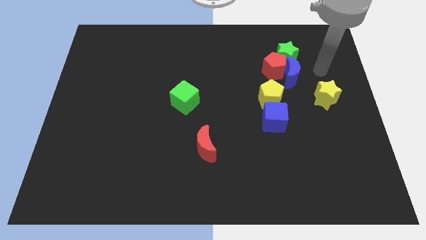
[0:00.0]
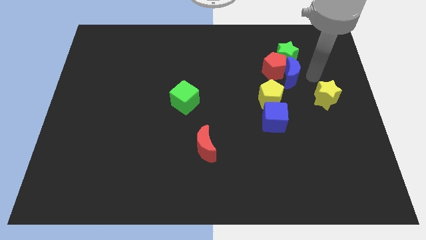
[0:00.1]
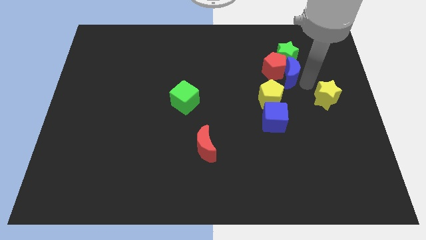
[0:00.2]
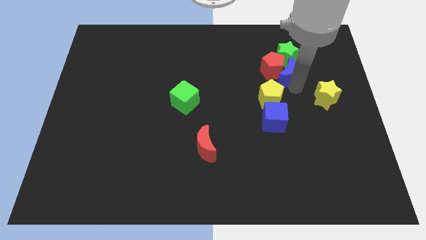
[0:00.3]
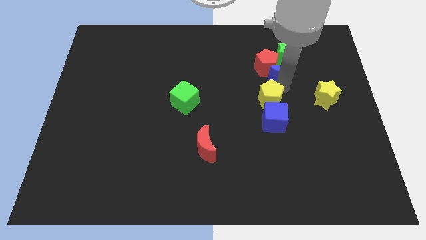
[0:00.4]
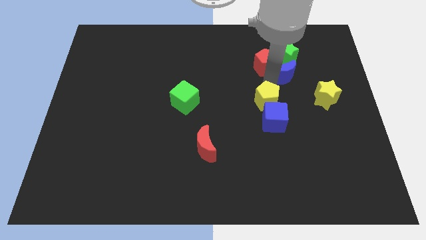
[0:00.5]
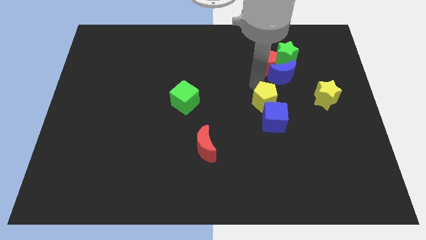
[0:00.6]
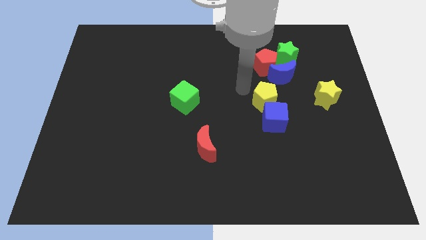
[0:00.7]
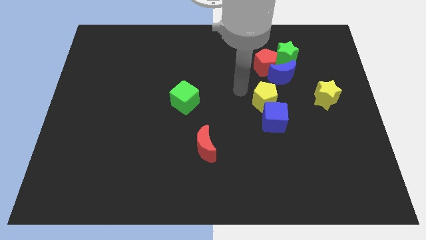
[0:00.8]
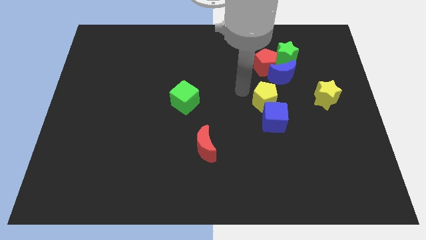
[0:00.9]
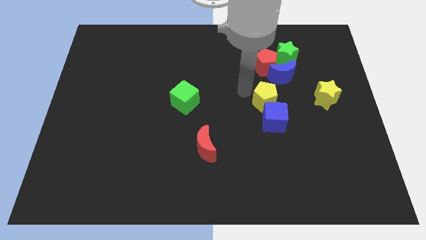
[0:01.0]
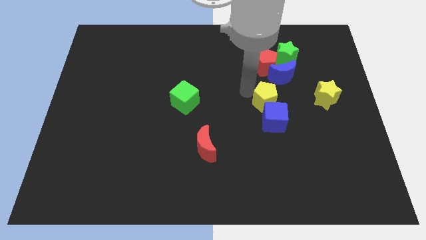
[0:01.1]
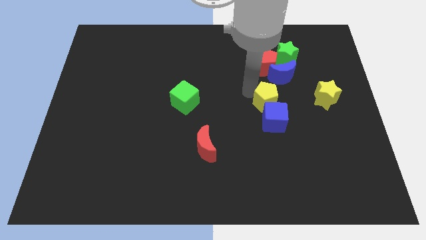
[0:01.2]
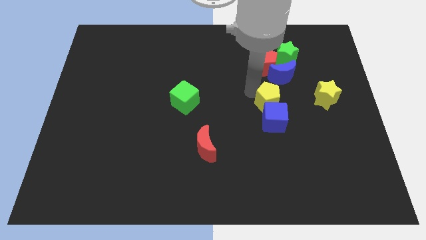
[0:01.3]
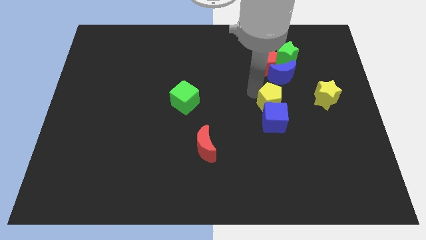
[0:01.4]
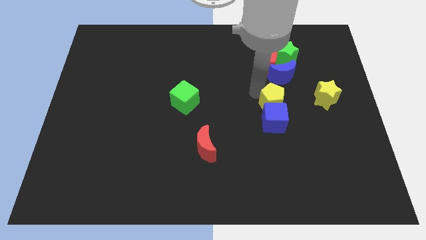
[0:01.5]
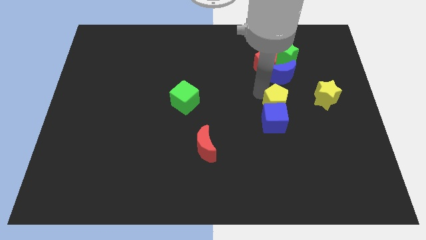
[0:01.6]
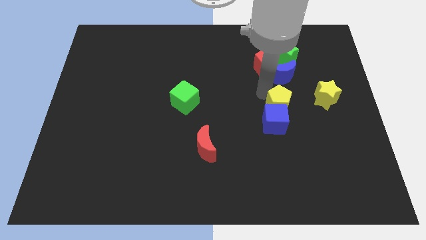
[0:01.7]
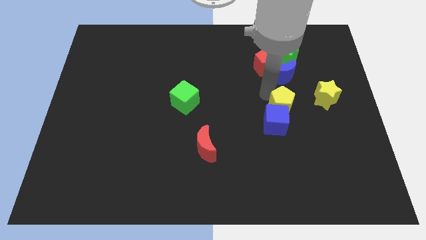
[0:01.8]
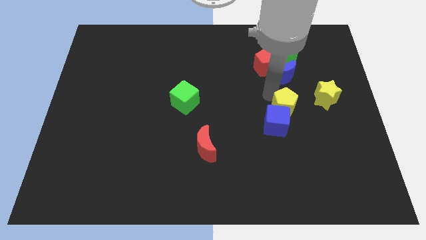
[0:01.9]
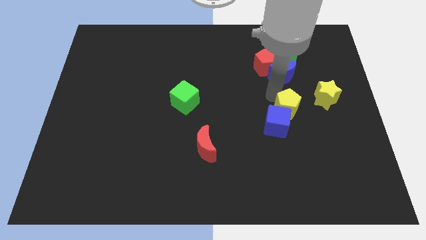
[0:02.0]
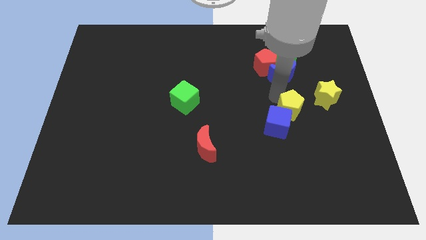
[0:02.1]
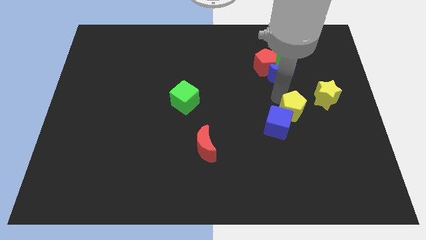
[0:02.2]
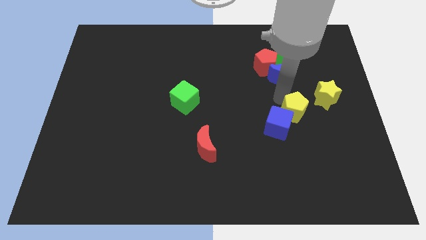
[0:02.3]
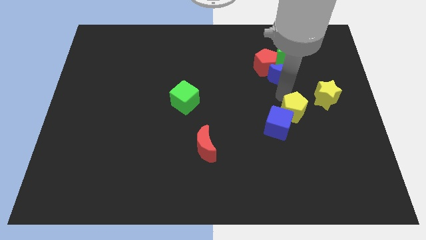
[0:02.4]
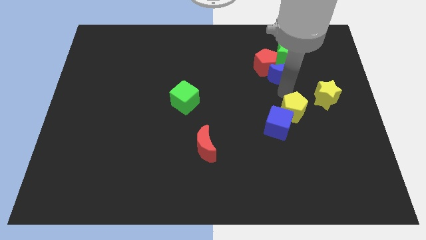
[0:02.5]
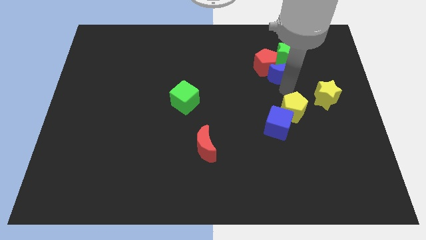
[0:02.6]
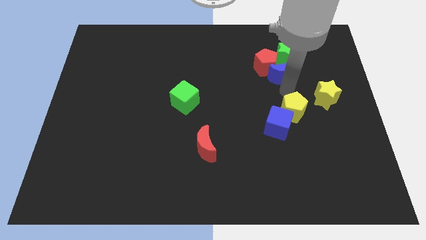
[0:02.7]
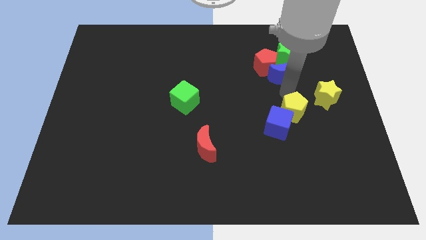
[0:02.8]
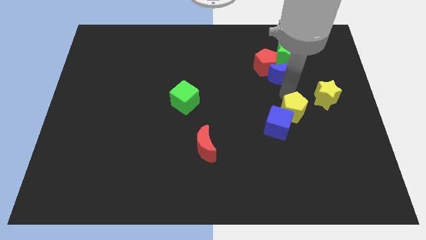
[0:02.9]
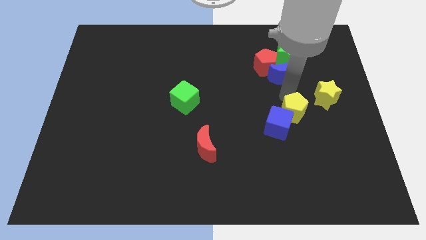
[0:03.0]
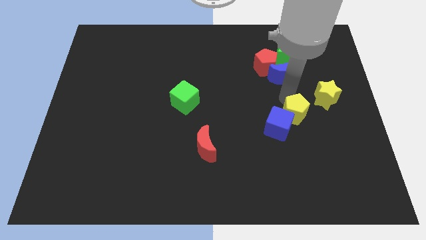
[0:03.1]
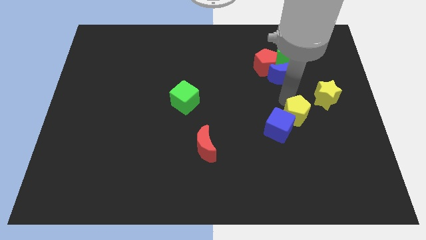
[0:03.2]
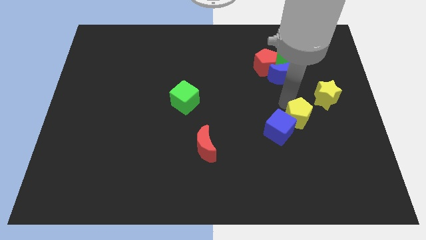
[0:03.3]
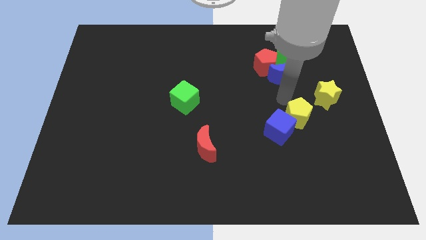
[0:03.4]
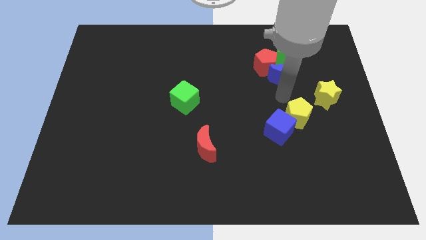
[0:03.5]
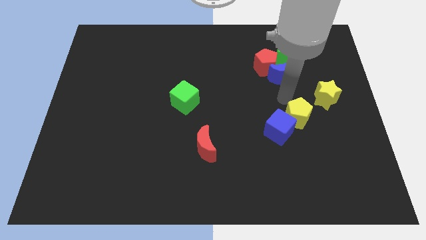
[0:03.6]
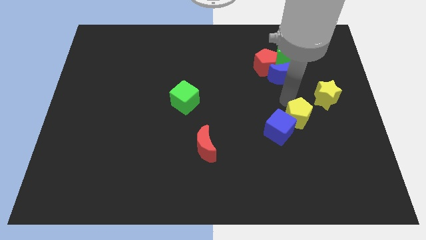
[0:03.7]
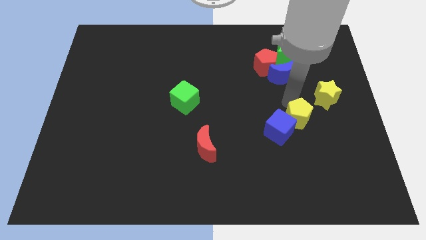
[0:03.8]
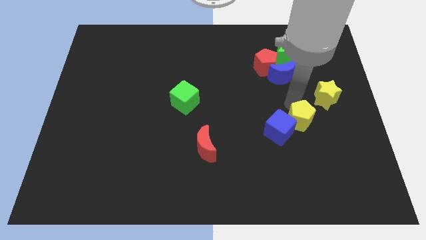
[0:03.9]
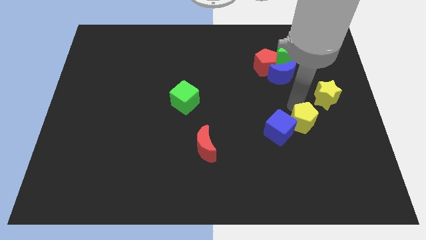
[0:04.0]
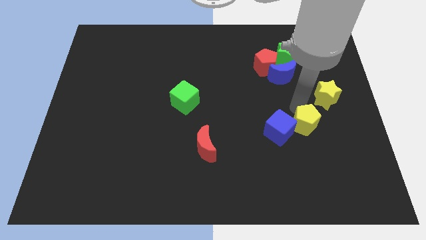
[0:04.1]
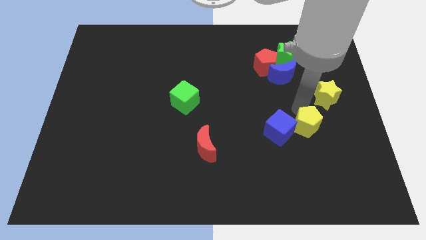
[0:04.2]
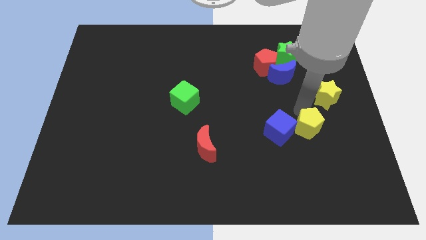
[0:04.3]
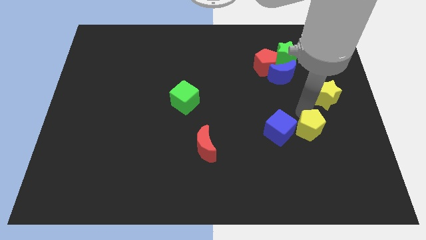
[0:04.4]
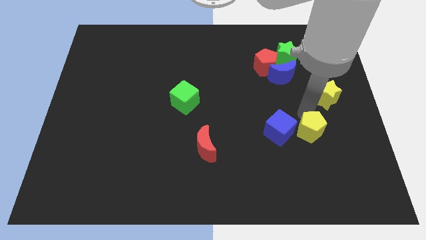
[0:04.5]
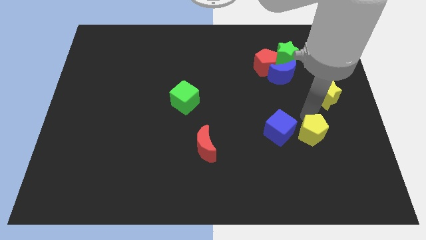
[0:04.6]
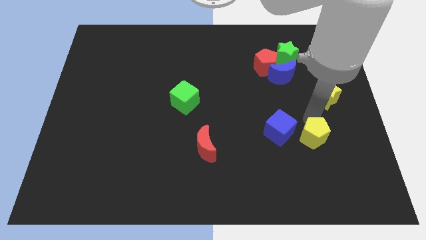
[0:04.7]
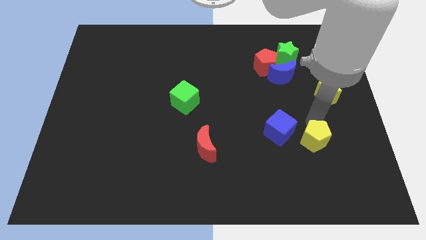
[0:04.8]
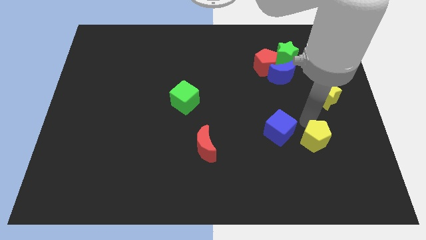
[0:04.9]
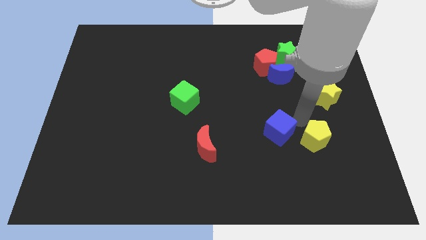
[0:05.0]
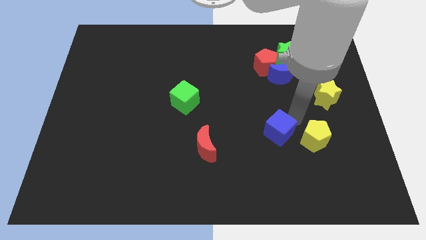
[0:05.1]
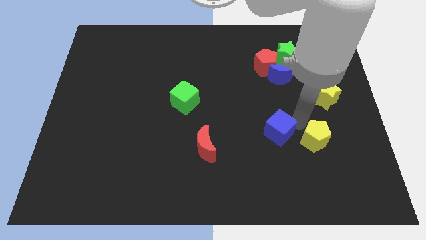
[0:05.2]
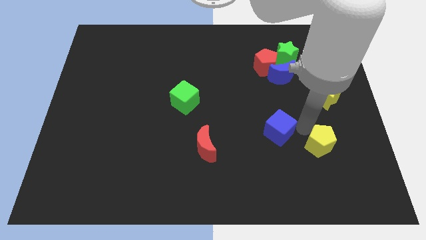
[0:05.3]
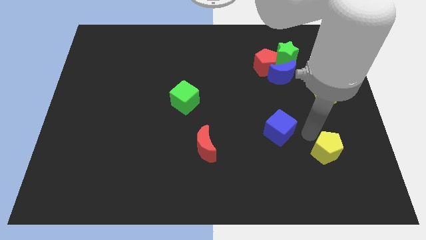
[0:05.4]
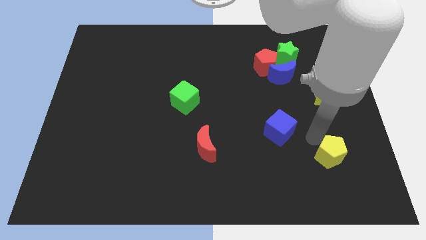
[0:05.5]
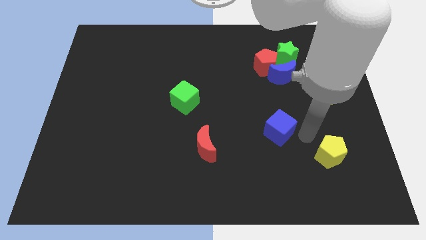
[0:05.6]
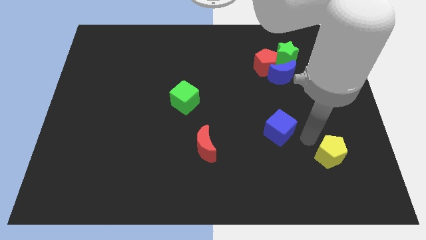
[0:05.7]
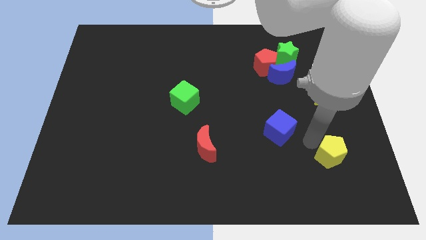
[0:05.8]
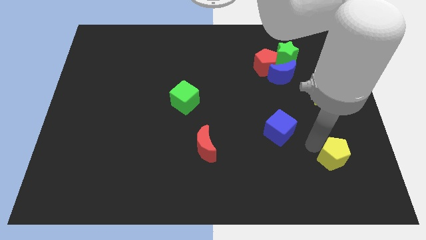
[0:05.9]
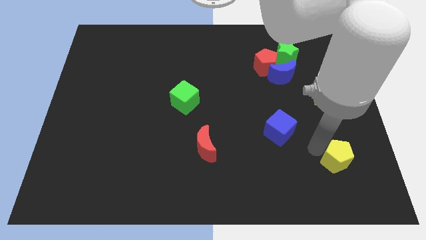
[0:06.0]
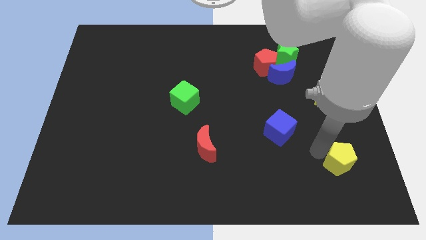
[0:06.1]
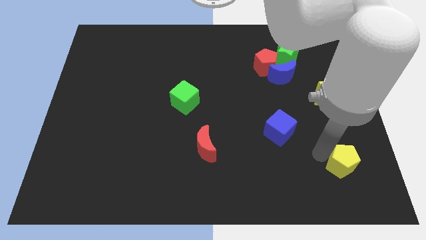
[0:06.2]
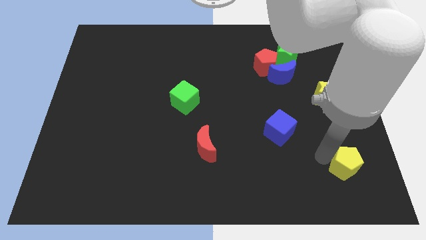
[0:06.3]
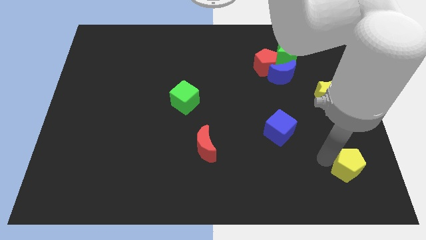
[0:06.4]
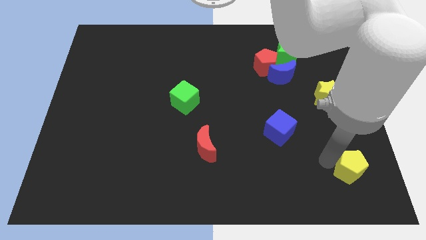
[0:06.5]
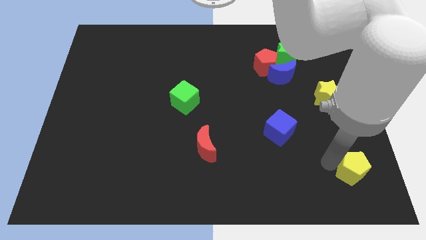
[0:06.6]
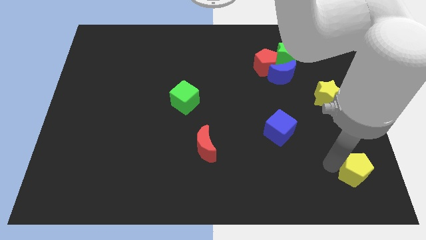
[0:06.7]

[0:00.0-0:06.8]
push the yellow pentagon to the lower right corner
